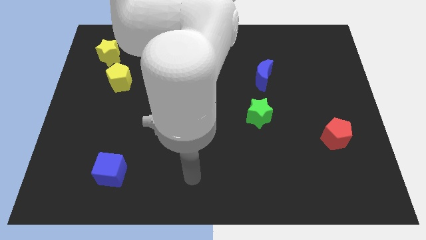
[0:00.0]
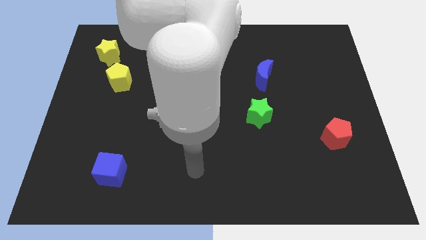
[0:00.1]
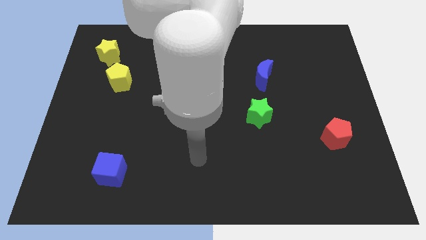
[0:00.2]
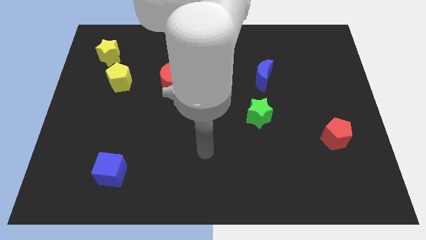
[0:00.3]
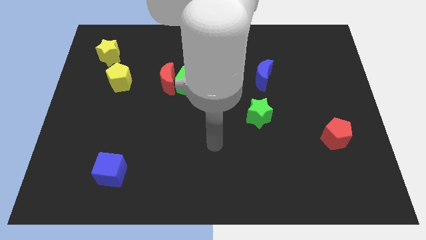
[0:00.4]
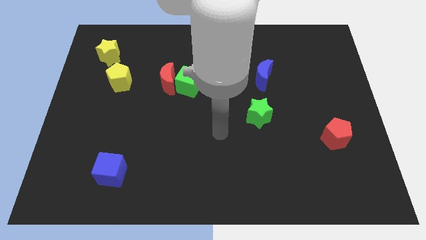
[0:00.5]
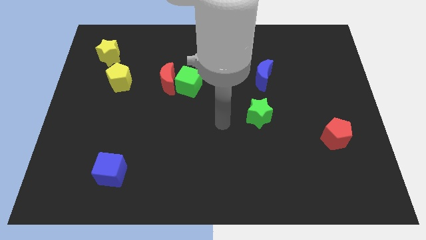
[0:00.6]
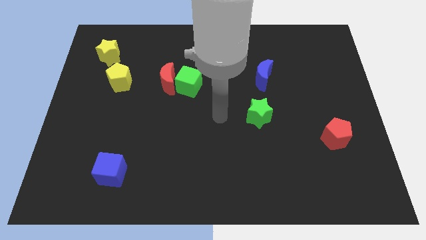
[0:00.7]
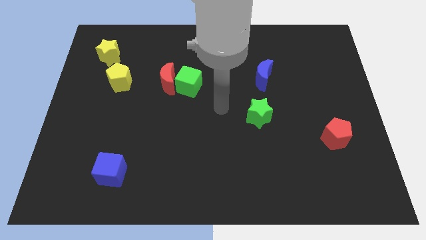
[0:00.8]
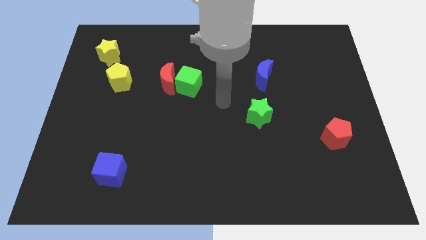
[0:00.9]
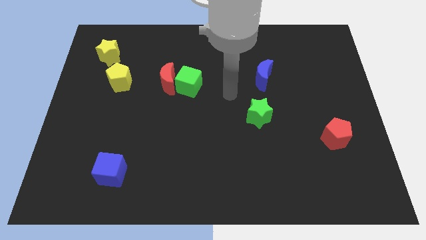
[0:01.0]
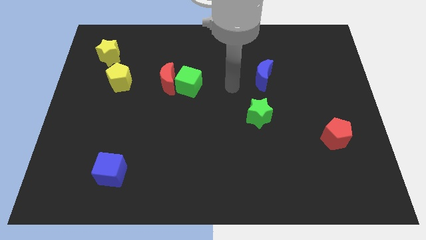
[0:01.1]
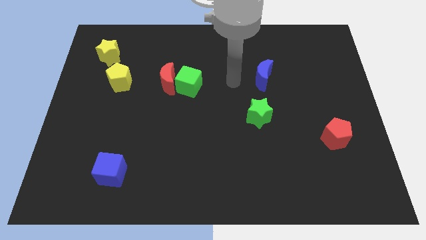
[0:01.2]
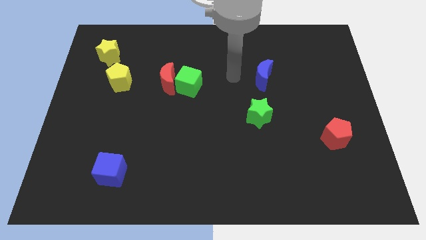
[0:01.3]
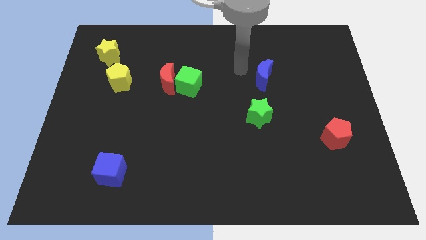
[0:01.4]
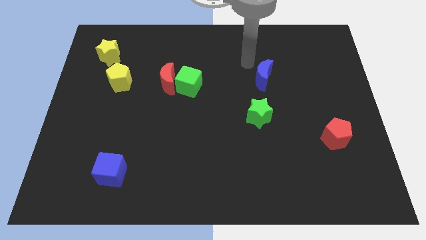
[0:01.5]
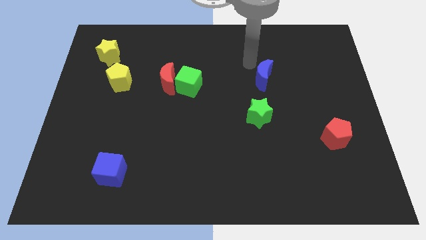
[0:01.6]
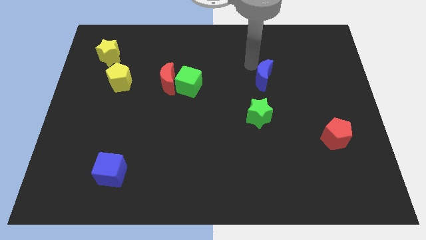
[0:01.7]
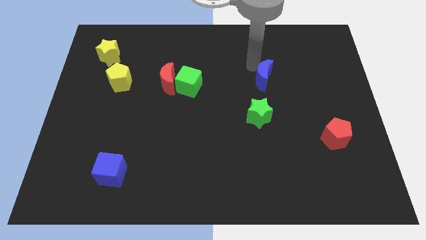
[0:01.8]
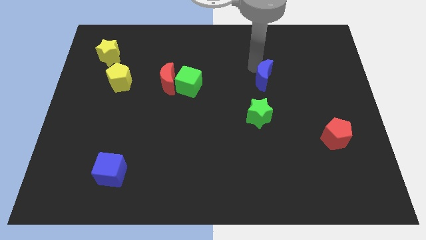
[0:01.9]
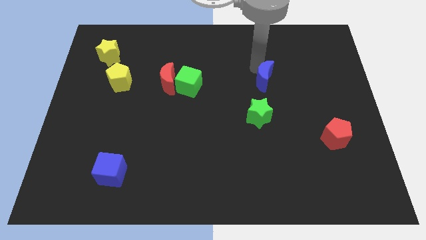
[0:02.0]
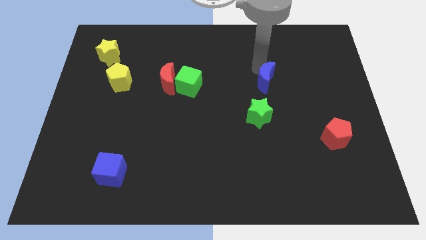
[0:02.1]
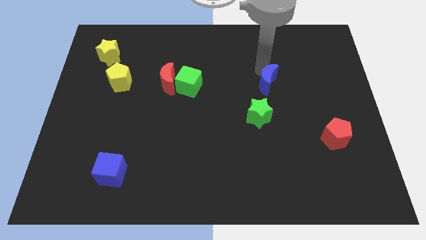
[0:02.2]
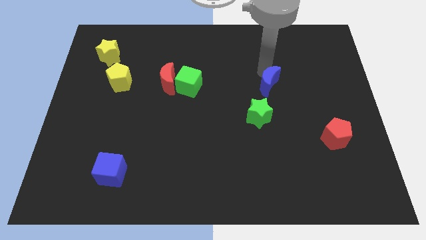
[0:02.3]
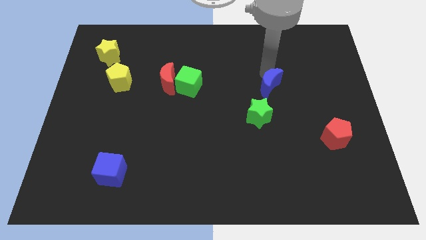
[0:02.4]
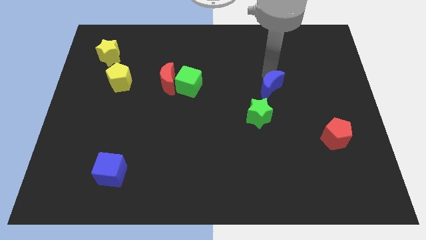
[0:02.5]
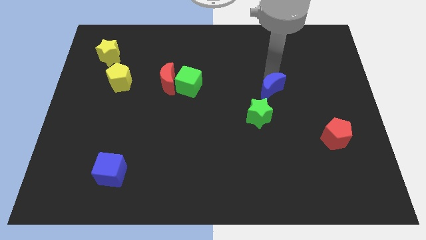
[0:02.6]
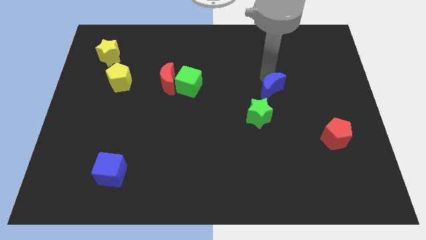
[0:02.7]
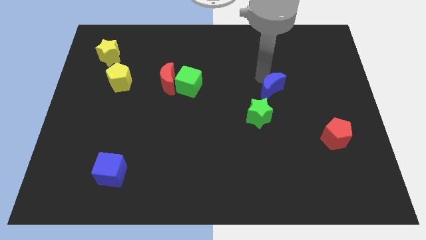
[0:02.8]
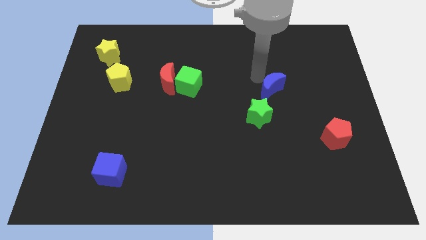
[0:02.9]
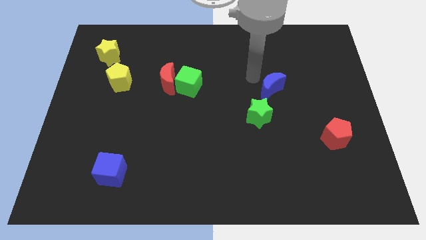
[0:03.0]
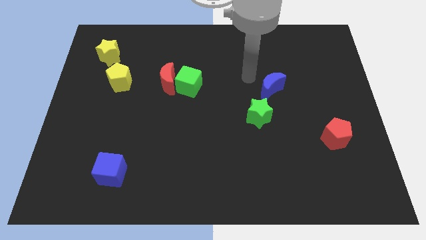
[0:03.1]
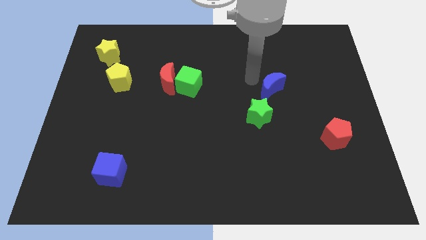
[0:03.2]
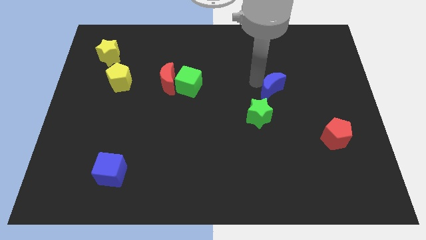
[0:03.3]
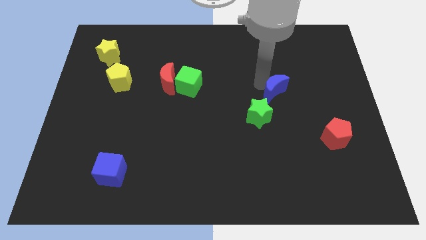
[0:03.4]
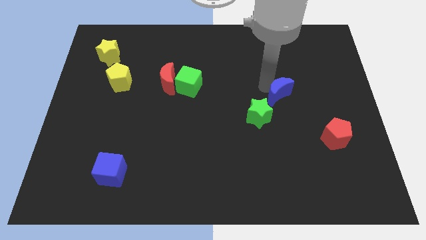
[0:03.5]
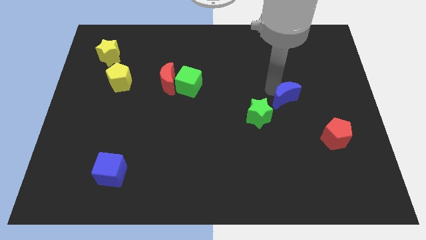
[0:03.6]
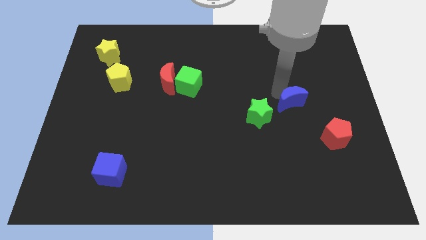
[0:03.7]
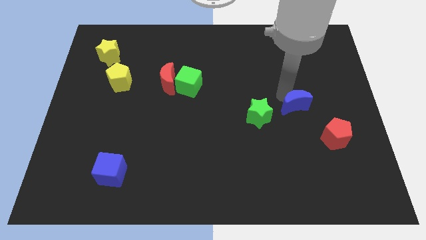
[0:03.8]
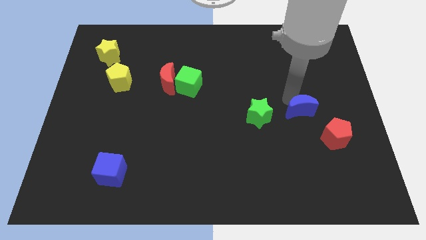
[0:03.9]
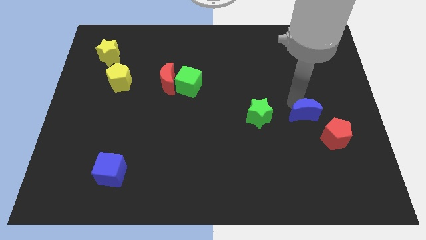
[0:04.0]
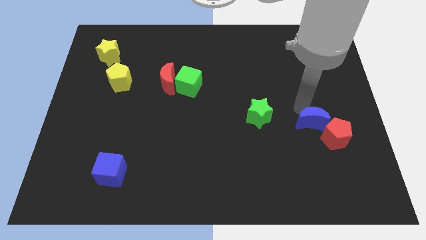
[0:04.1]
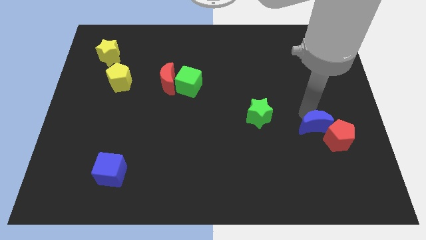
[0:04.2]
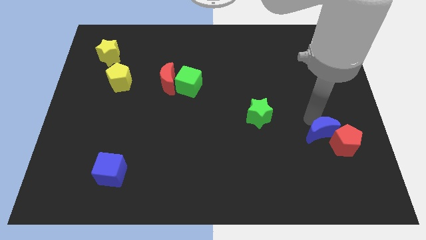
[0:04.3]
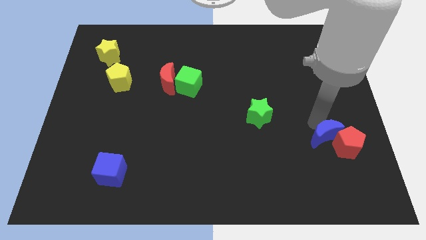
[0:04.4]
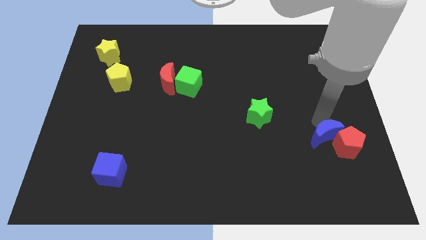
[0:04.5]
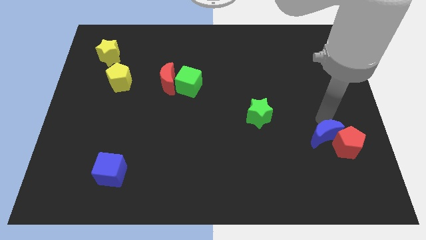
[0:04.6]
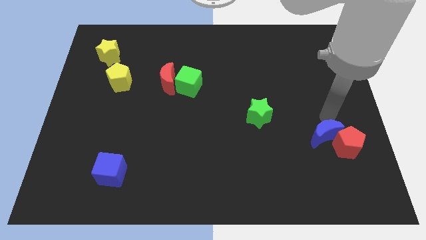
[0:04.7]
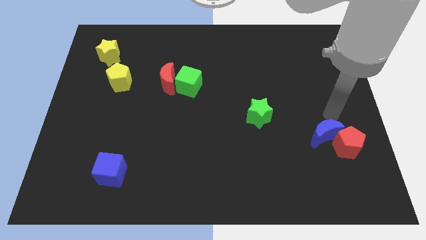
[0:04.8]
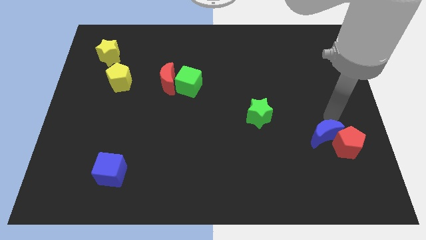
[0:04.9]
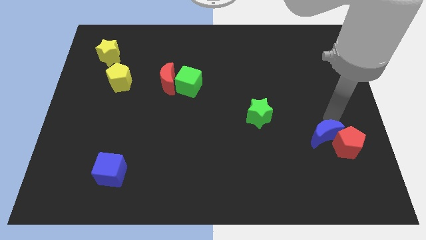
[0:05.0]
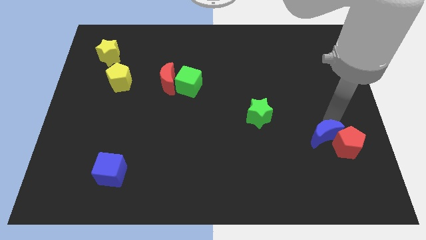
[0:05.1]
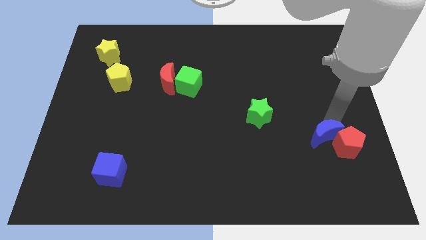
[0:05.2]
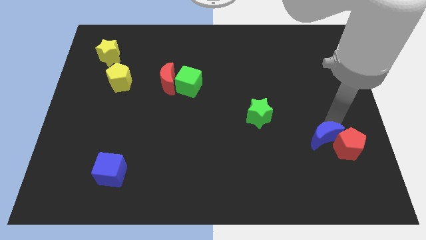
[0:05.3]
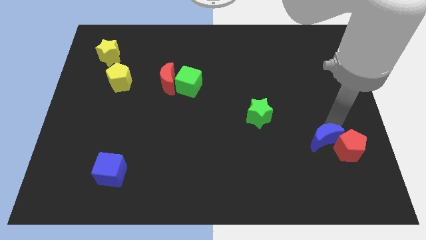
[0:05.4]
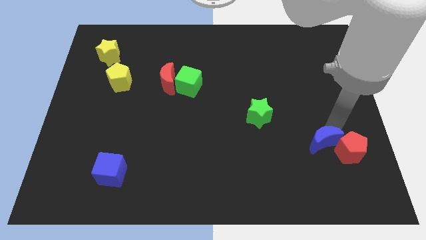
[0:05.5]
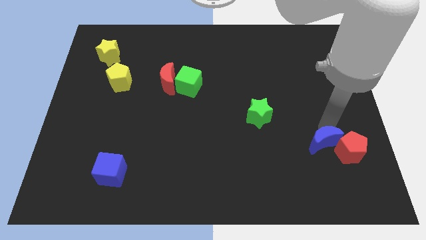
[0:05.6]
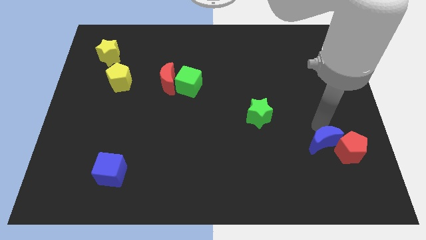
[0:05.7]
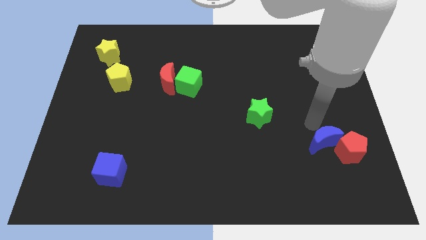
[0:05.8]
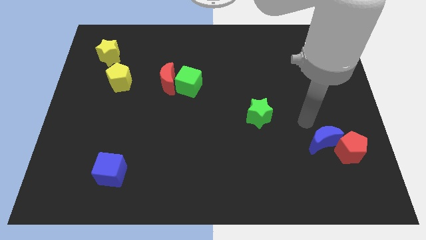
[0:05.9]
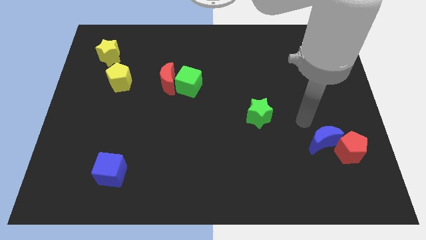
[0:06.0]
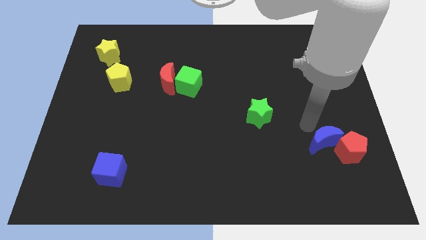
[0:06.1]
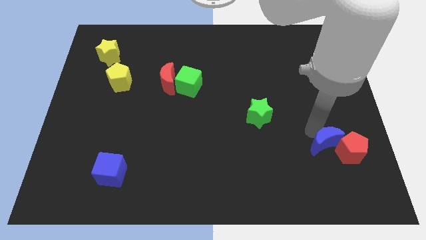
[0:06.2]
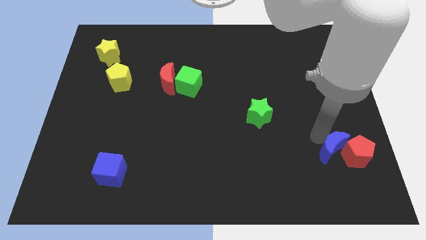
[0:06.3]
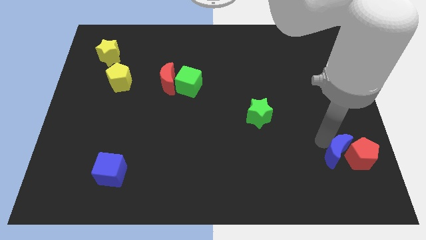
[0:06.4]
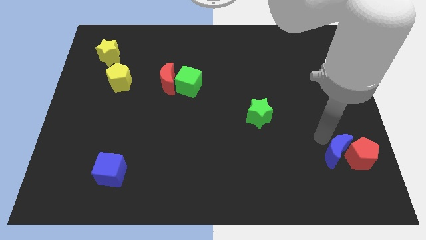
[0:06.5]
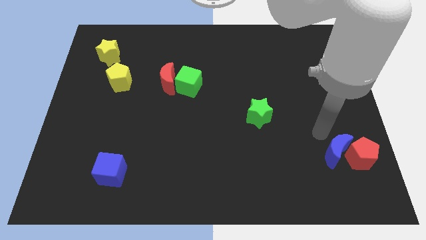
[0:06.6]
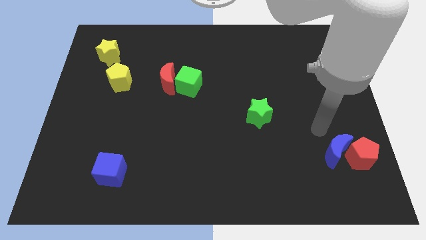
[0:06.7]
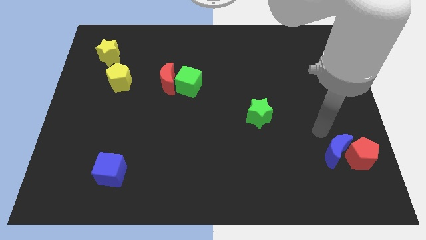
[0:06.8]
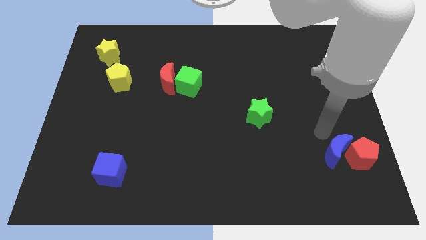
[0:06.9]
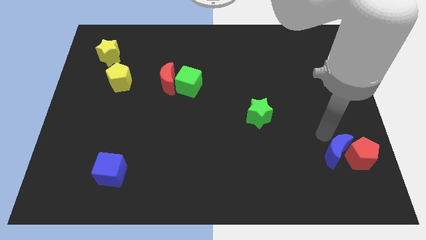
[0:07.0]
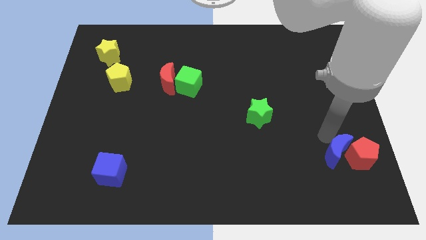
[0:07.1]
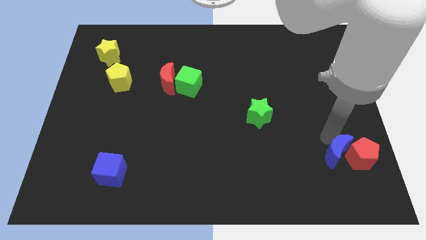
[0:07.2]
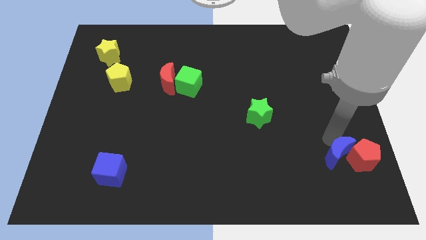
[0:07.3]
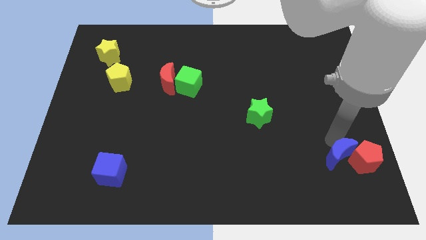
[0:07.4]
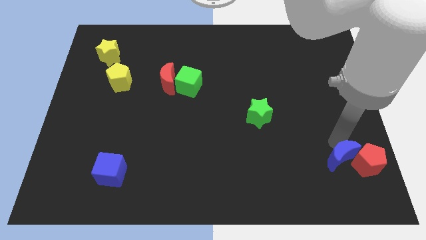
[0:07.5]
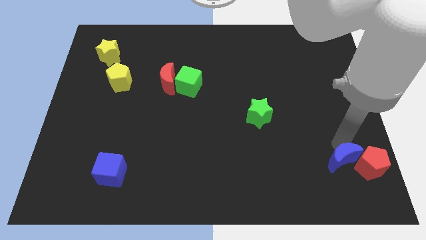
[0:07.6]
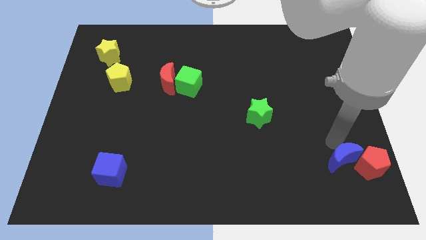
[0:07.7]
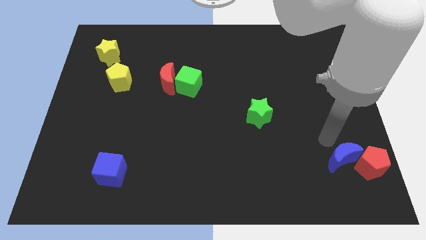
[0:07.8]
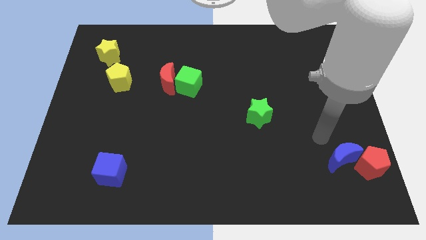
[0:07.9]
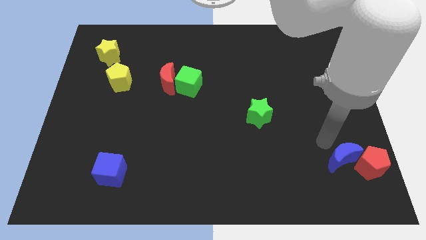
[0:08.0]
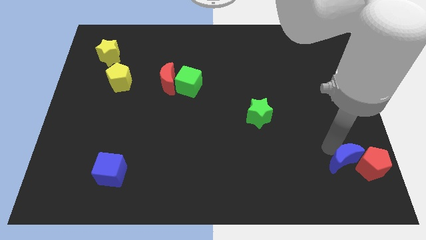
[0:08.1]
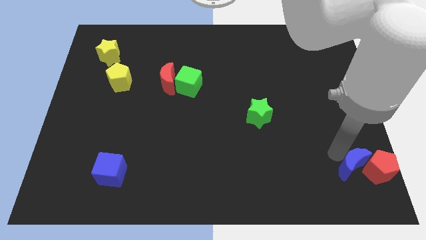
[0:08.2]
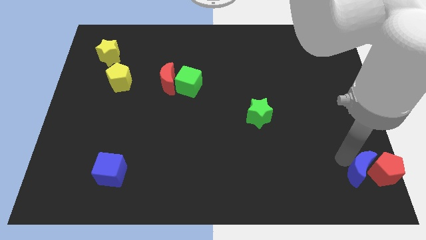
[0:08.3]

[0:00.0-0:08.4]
put the blue moon to the bottom right
